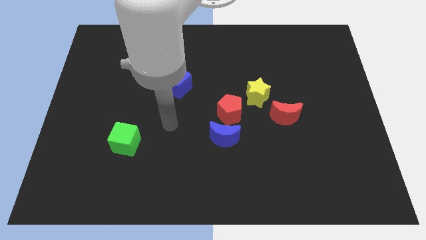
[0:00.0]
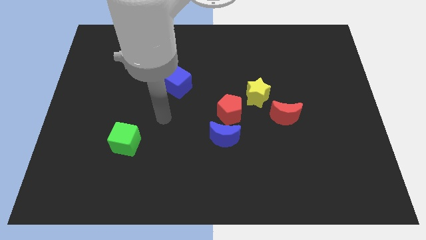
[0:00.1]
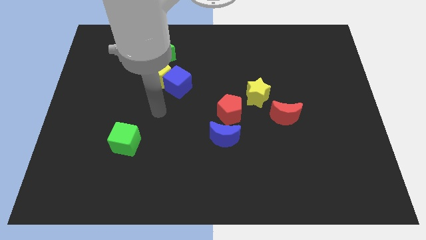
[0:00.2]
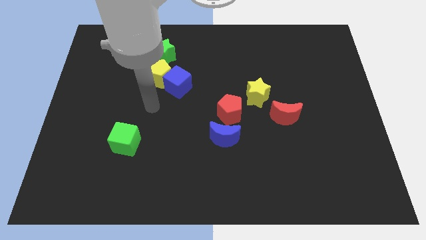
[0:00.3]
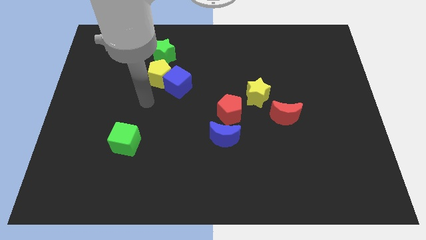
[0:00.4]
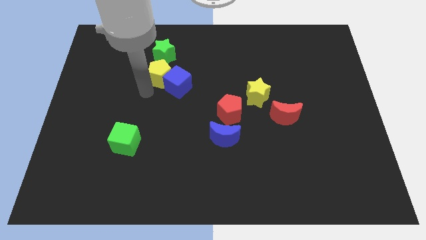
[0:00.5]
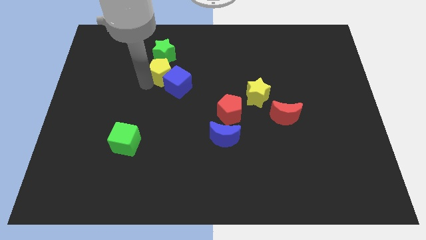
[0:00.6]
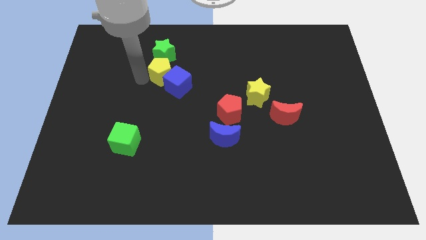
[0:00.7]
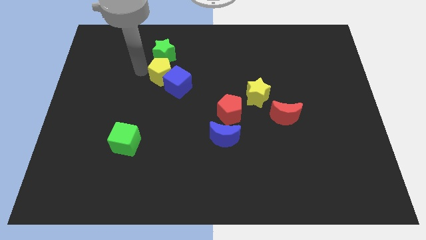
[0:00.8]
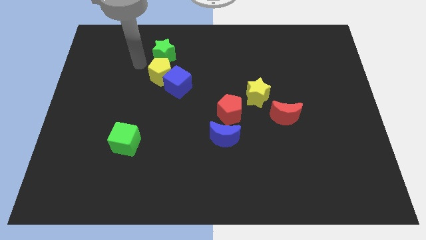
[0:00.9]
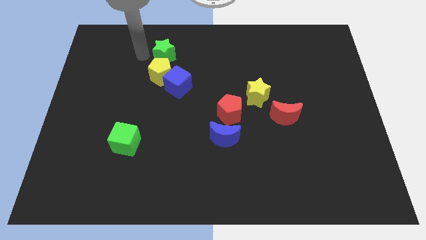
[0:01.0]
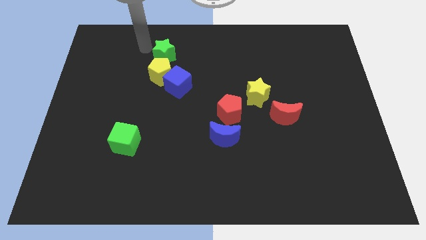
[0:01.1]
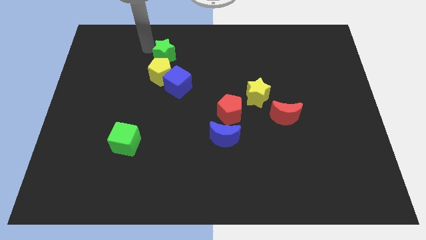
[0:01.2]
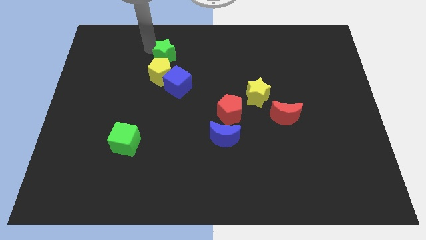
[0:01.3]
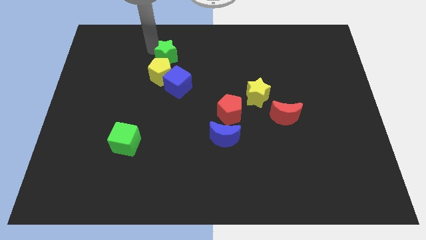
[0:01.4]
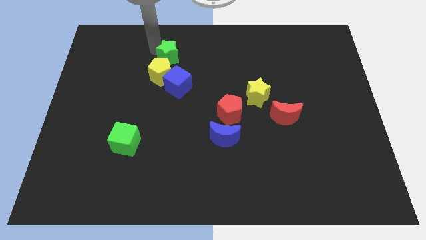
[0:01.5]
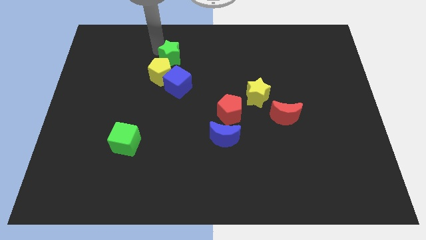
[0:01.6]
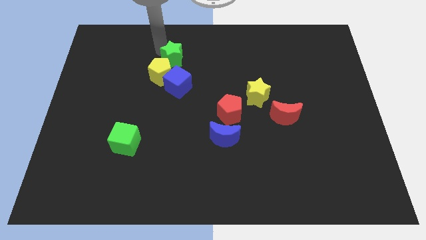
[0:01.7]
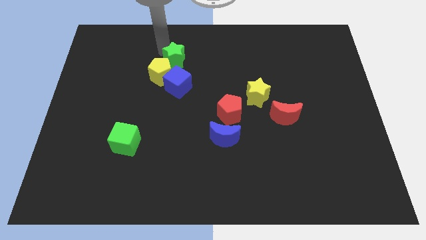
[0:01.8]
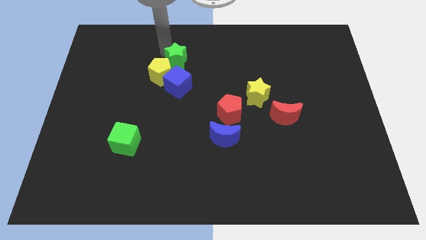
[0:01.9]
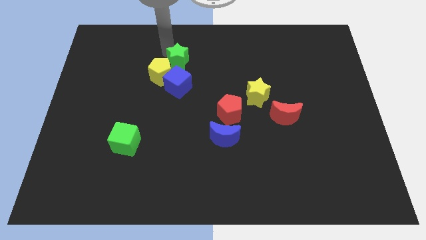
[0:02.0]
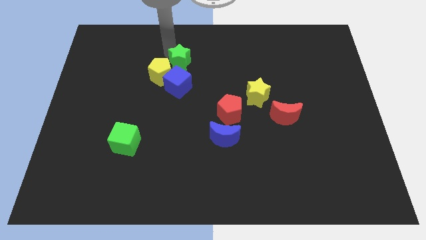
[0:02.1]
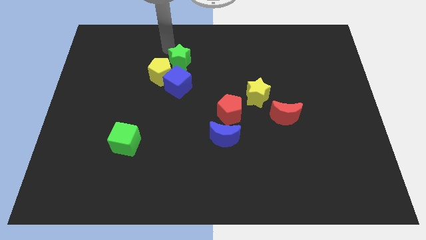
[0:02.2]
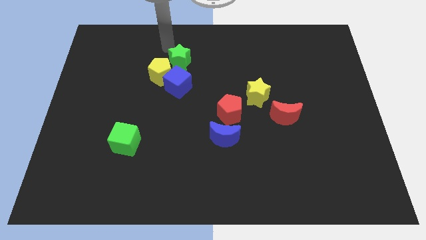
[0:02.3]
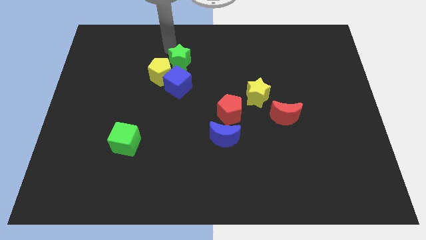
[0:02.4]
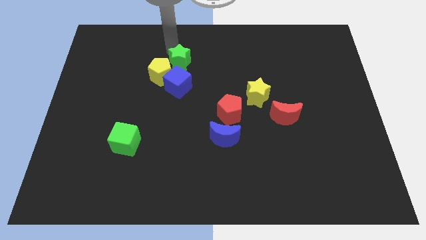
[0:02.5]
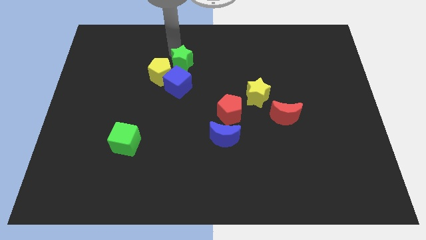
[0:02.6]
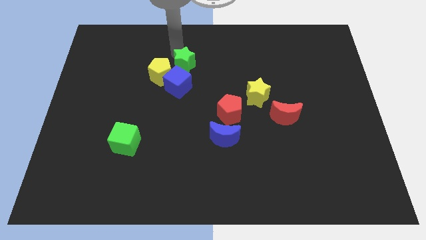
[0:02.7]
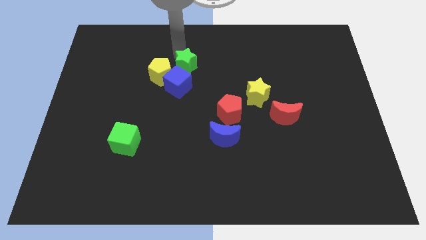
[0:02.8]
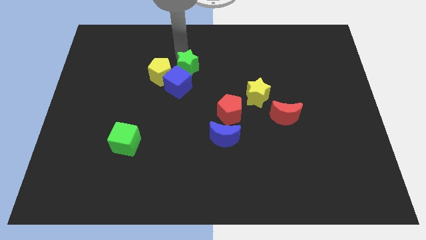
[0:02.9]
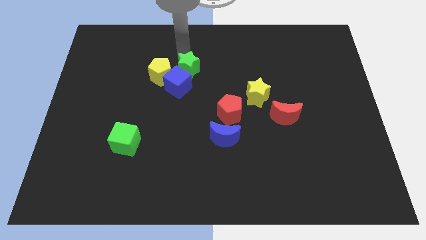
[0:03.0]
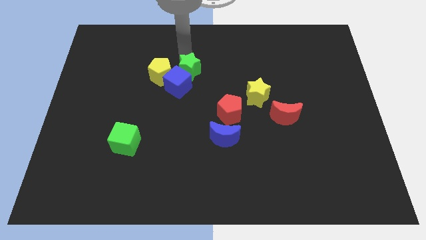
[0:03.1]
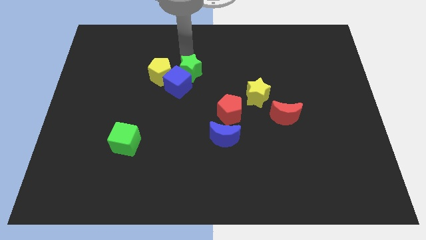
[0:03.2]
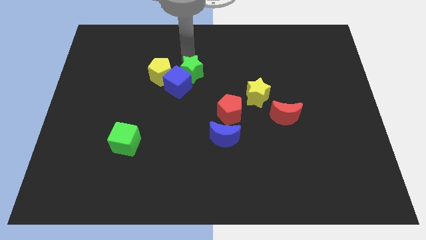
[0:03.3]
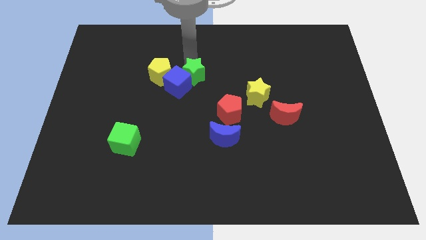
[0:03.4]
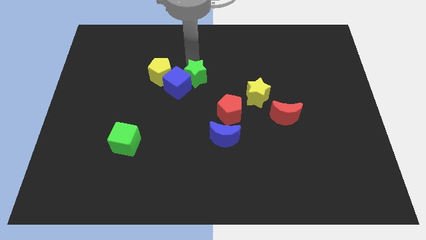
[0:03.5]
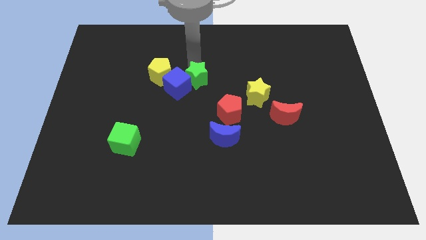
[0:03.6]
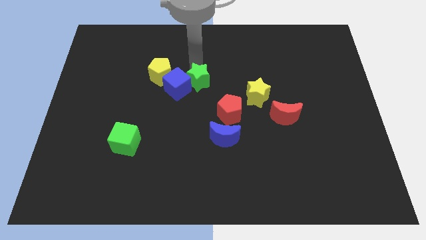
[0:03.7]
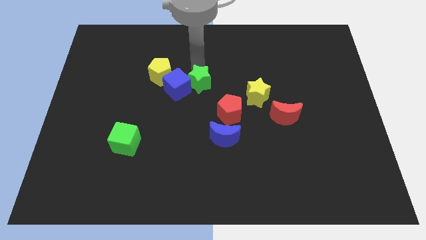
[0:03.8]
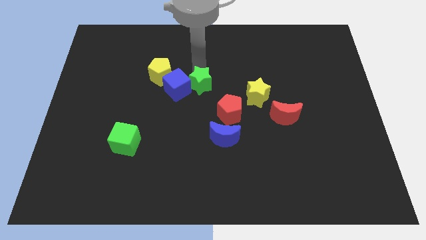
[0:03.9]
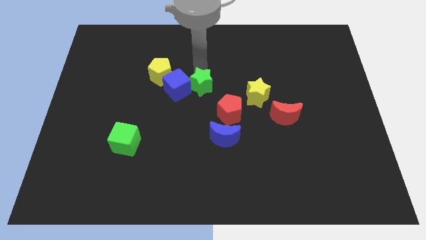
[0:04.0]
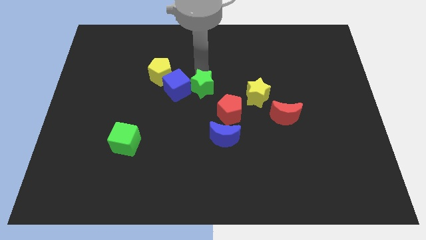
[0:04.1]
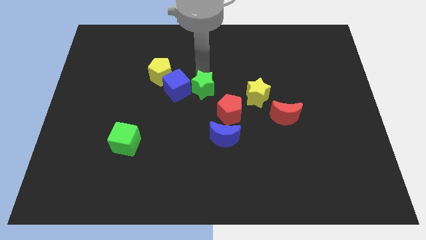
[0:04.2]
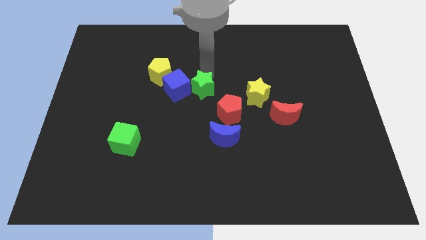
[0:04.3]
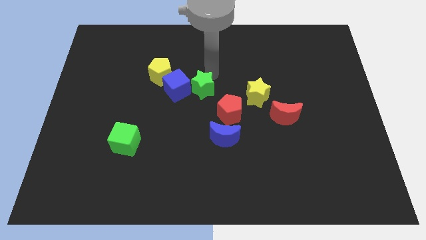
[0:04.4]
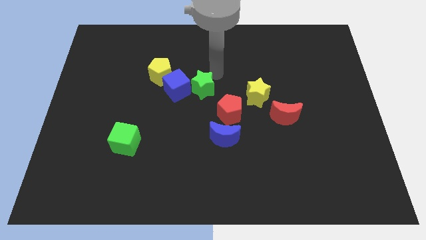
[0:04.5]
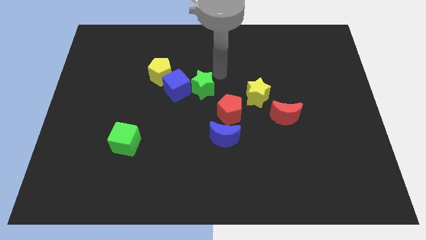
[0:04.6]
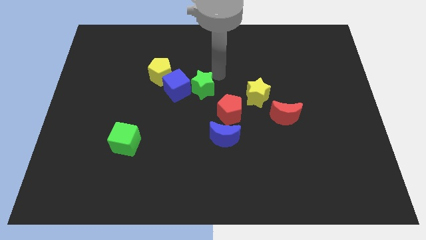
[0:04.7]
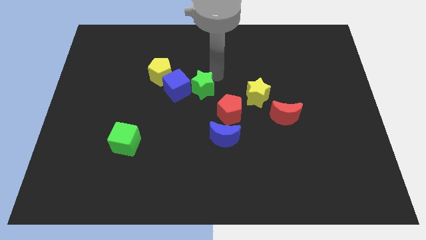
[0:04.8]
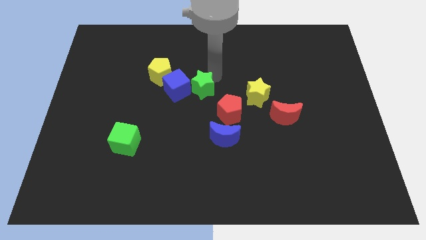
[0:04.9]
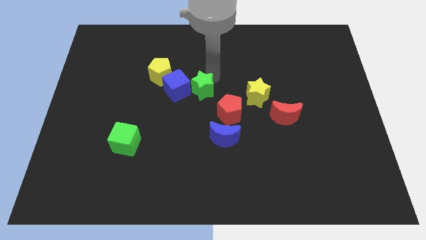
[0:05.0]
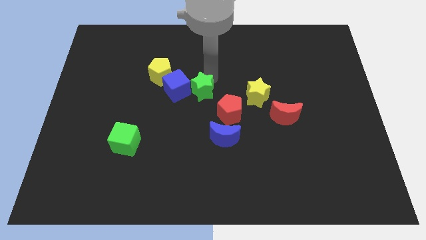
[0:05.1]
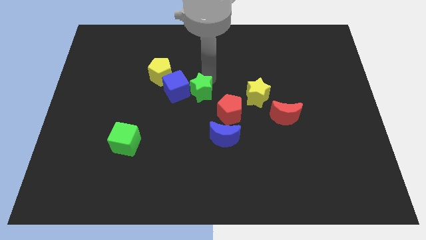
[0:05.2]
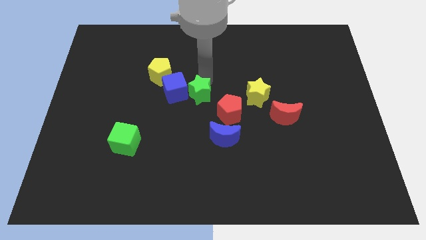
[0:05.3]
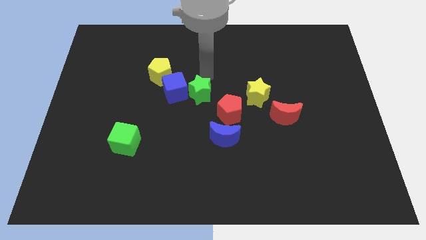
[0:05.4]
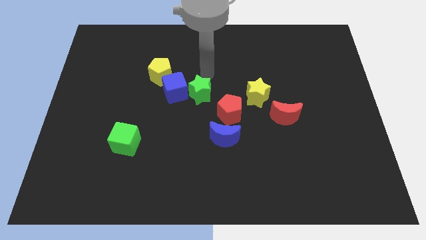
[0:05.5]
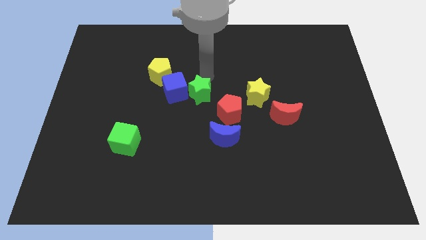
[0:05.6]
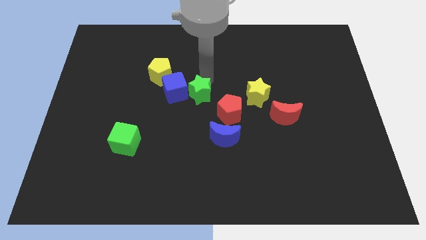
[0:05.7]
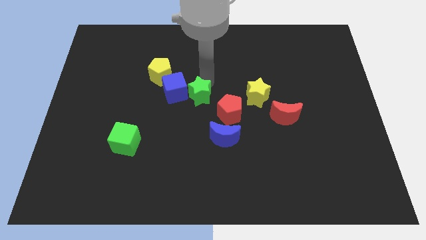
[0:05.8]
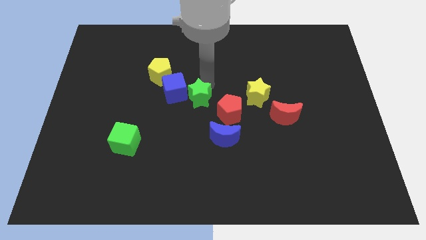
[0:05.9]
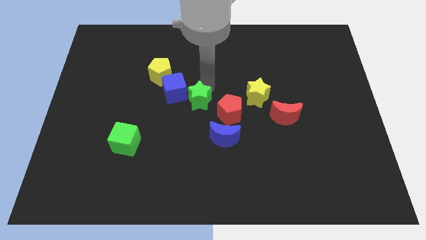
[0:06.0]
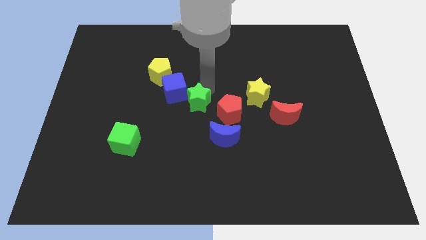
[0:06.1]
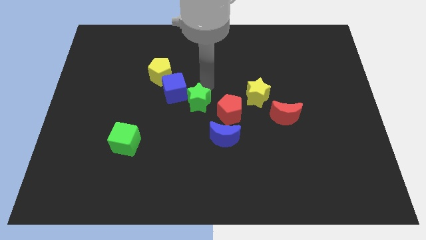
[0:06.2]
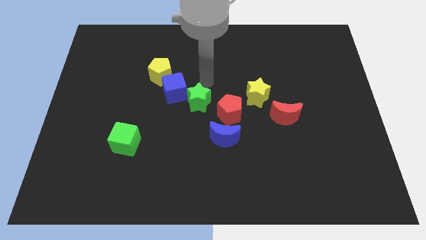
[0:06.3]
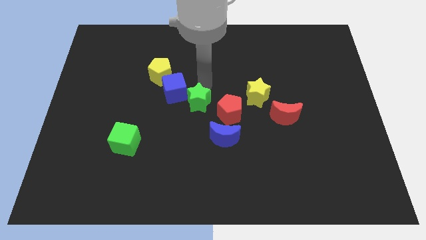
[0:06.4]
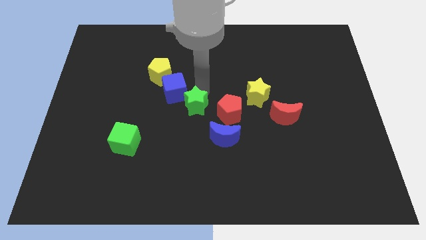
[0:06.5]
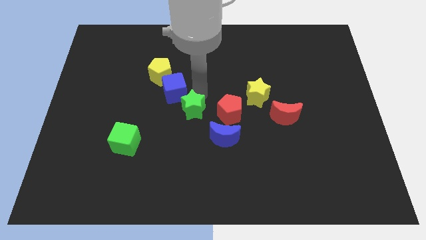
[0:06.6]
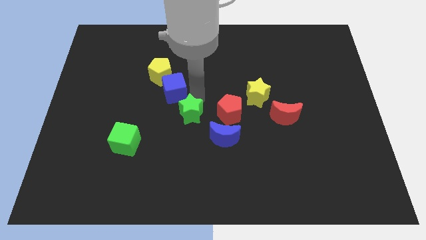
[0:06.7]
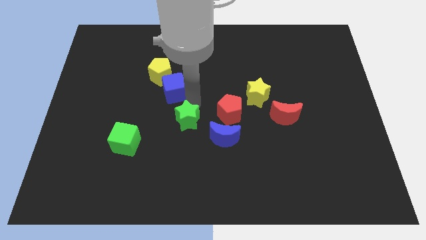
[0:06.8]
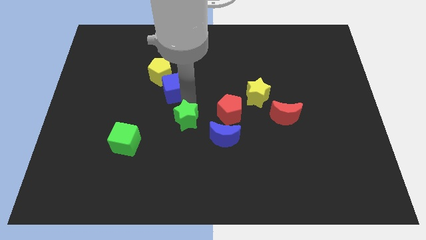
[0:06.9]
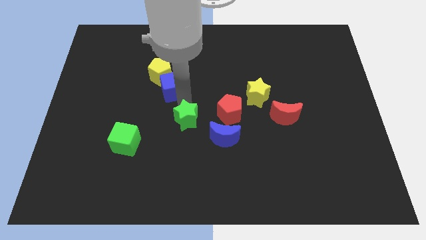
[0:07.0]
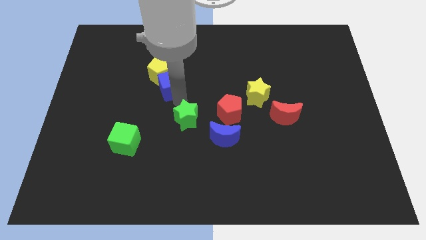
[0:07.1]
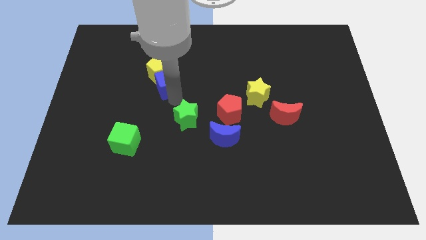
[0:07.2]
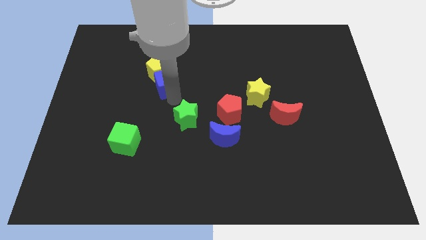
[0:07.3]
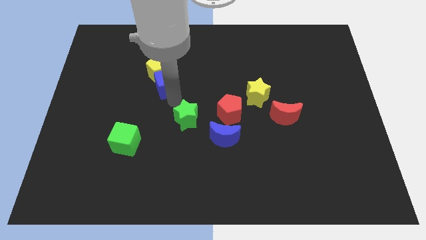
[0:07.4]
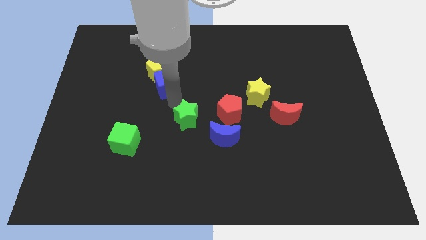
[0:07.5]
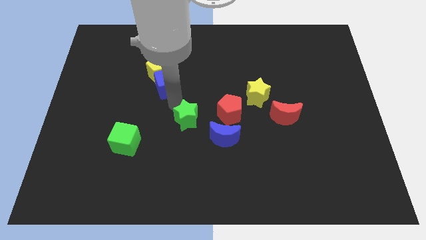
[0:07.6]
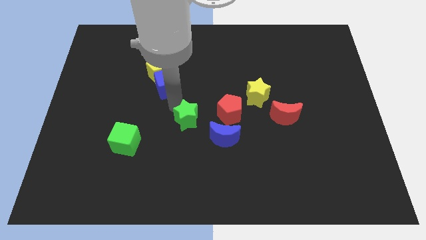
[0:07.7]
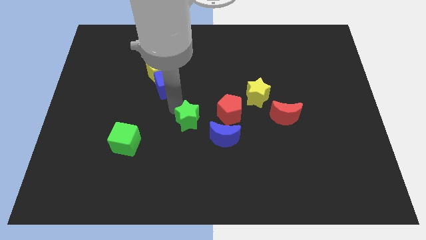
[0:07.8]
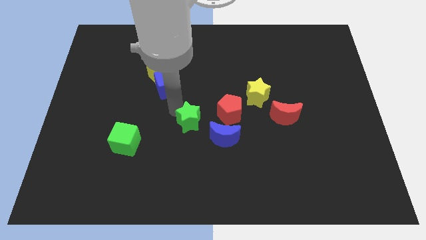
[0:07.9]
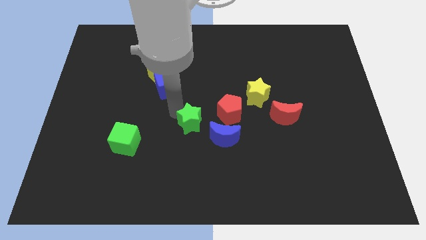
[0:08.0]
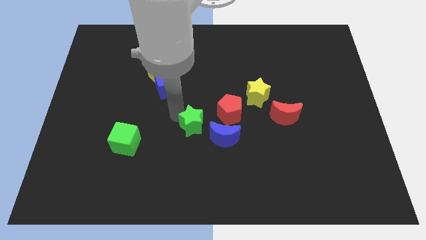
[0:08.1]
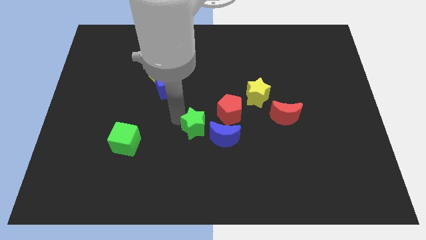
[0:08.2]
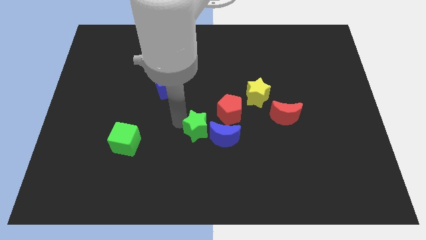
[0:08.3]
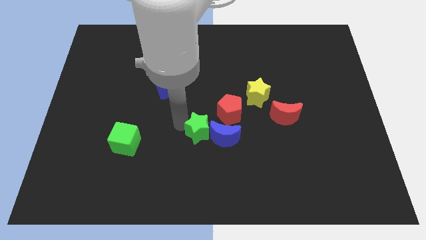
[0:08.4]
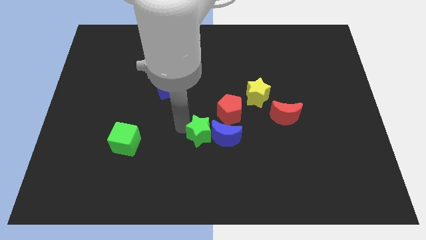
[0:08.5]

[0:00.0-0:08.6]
put the green star to the bottom left of the blue moon
